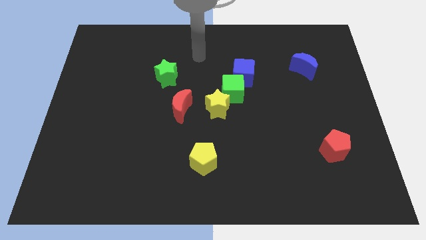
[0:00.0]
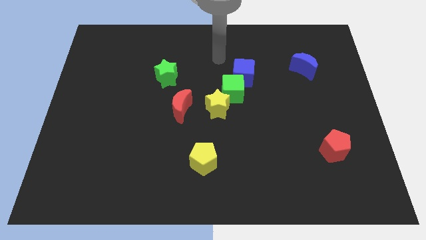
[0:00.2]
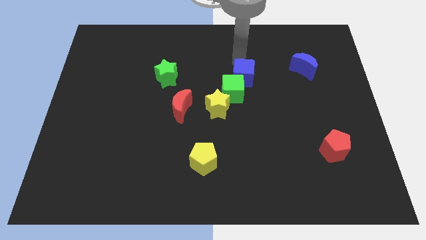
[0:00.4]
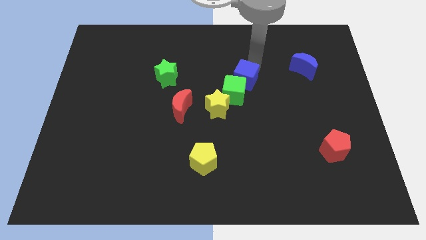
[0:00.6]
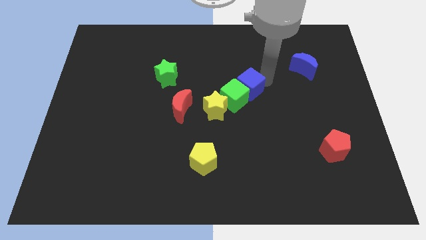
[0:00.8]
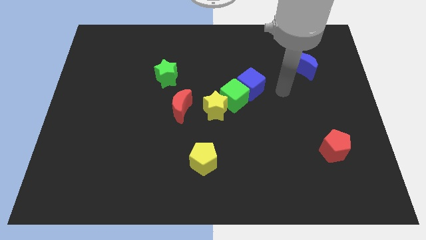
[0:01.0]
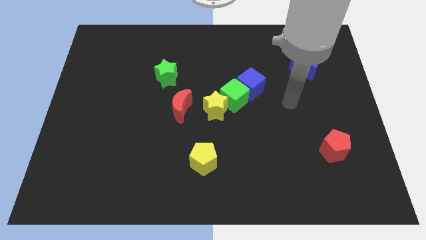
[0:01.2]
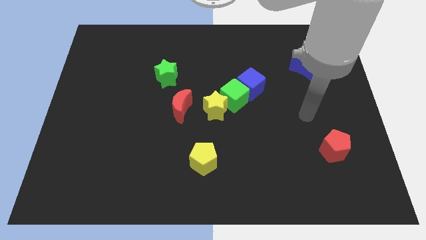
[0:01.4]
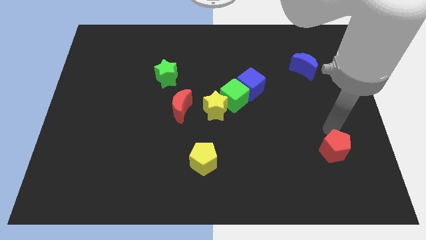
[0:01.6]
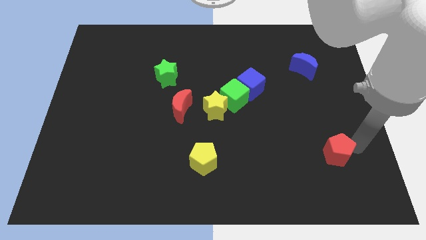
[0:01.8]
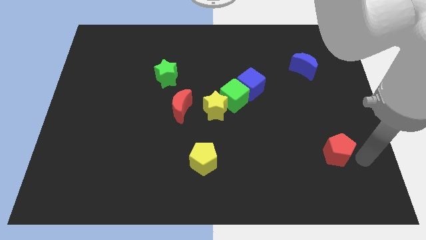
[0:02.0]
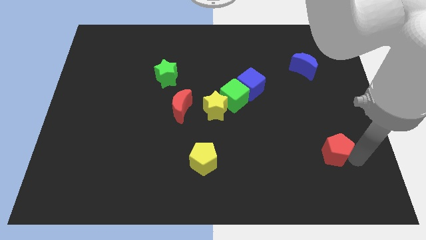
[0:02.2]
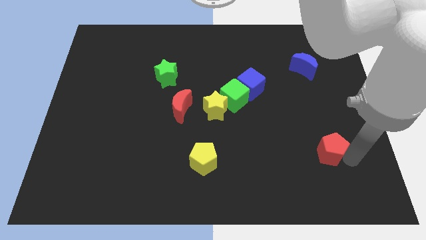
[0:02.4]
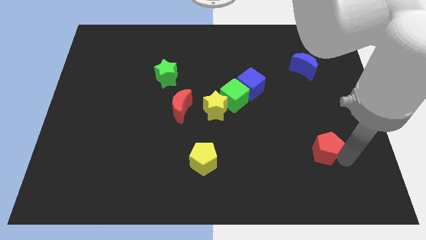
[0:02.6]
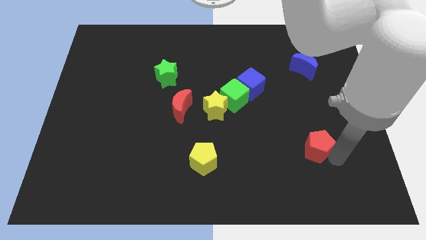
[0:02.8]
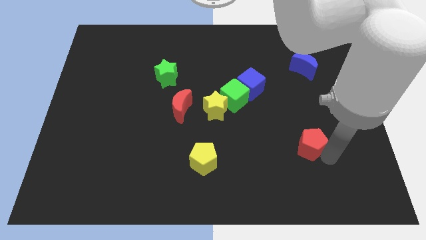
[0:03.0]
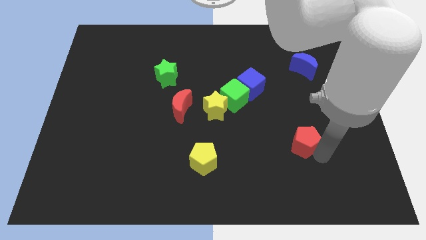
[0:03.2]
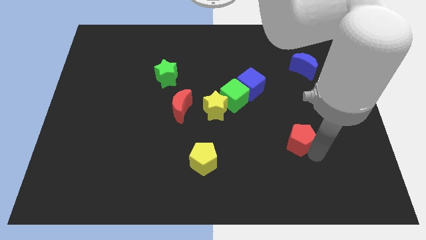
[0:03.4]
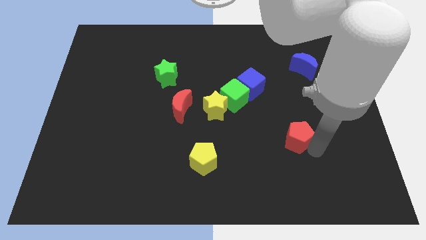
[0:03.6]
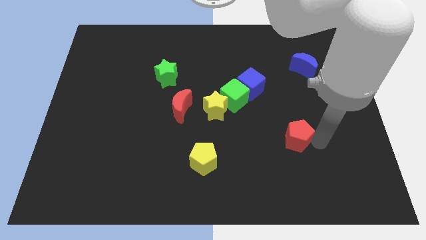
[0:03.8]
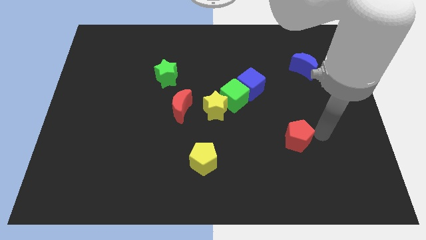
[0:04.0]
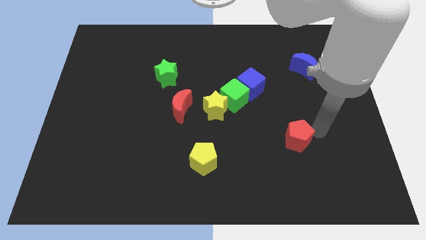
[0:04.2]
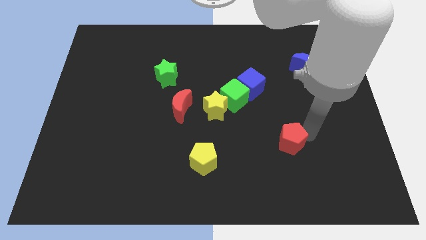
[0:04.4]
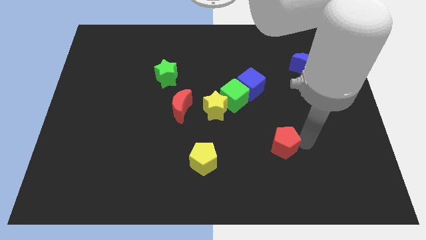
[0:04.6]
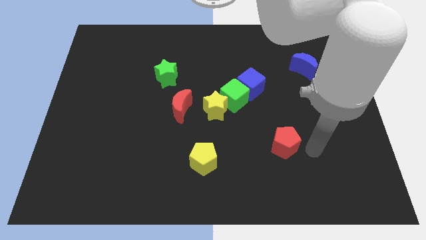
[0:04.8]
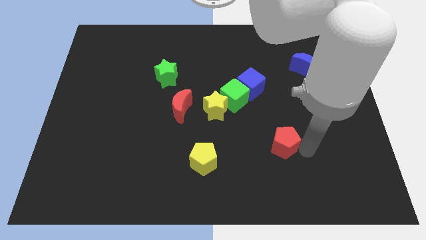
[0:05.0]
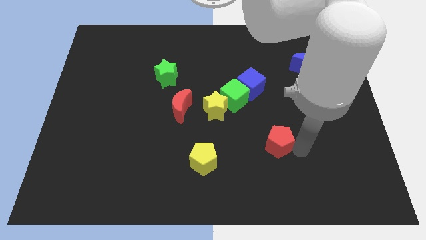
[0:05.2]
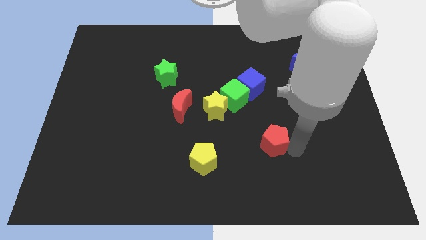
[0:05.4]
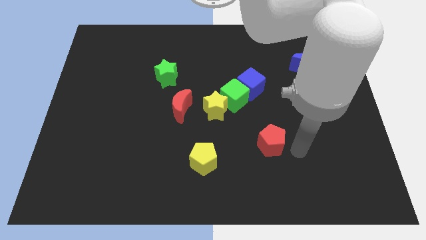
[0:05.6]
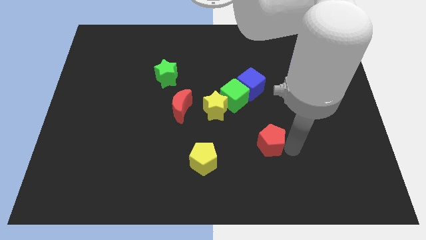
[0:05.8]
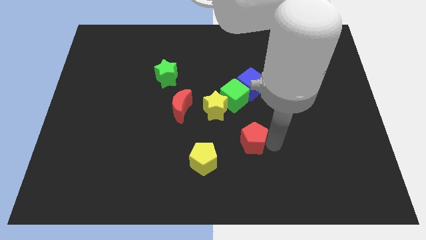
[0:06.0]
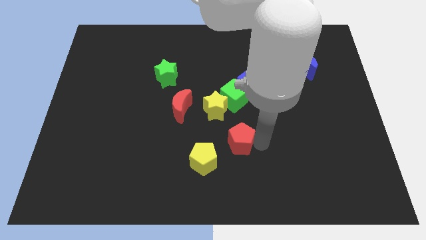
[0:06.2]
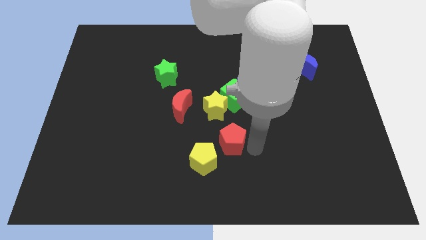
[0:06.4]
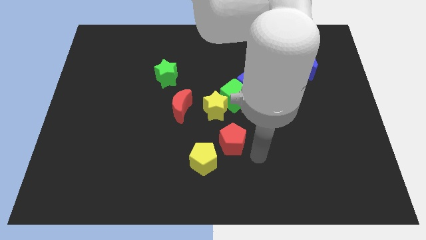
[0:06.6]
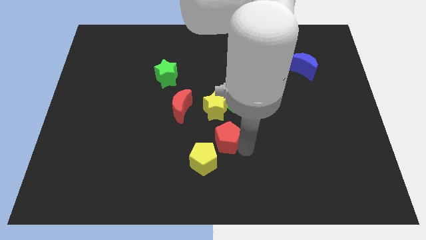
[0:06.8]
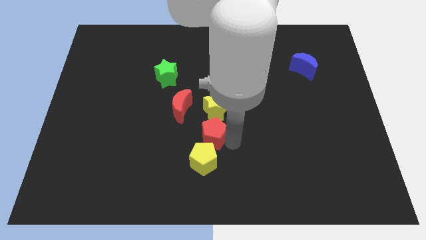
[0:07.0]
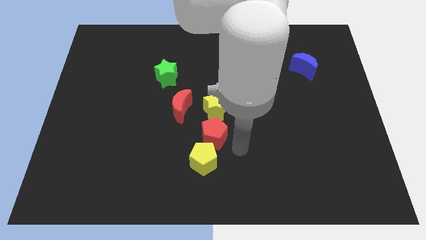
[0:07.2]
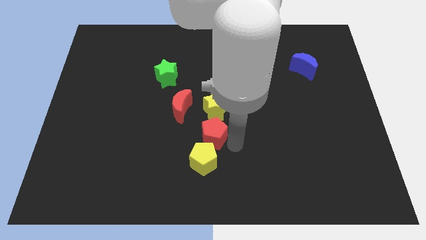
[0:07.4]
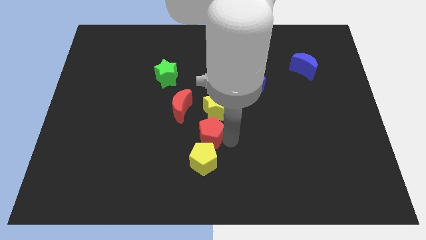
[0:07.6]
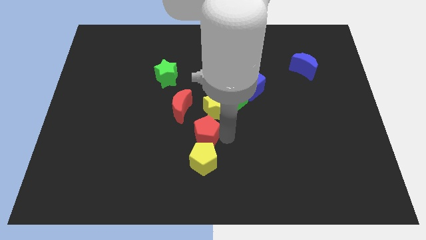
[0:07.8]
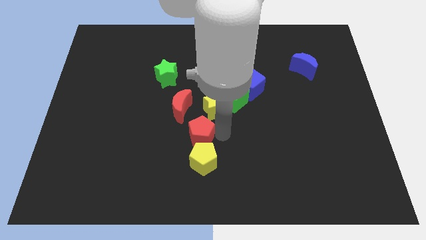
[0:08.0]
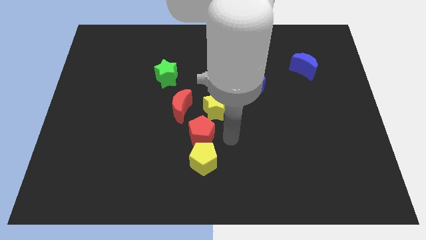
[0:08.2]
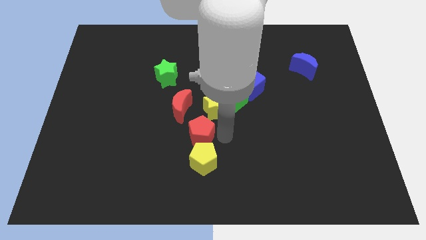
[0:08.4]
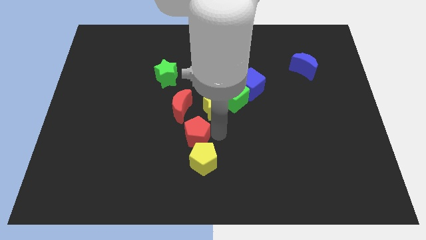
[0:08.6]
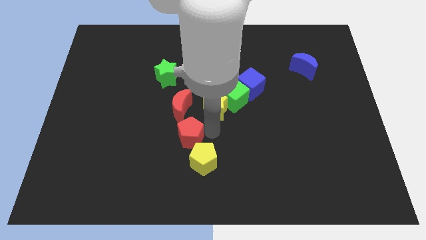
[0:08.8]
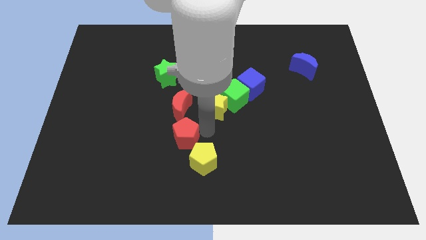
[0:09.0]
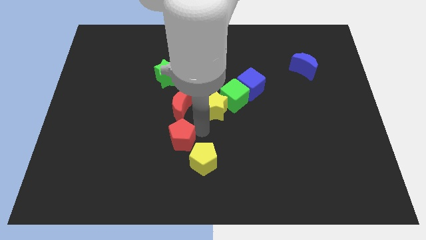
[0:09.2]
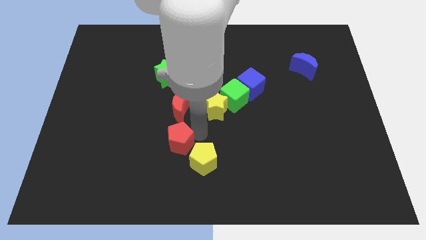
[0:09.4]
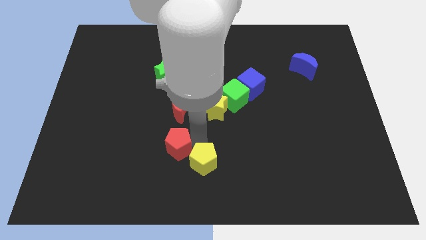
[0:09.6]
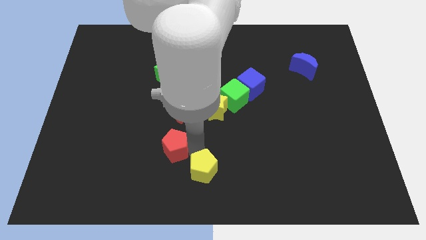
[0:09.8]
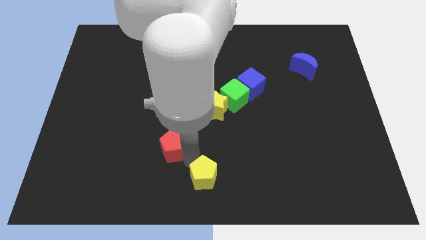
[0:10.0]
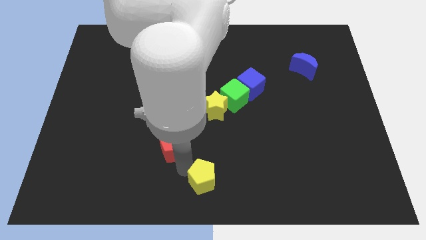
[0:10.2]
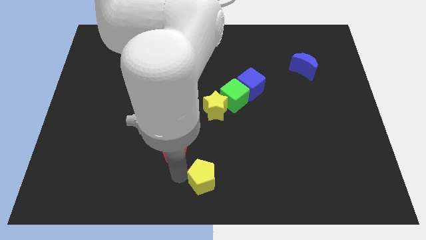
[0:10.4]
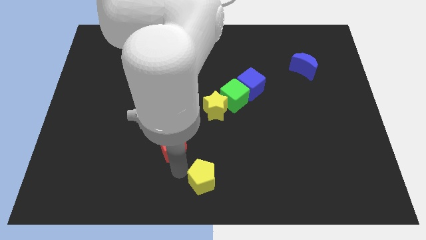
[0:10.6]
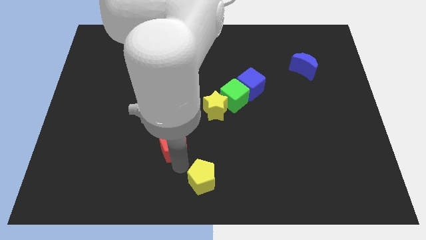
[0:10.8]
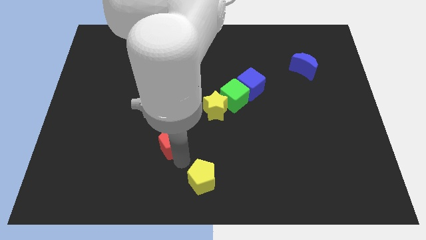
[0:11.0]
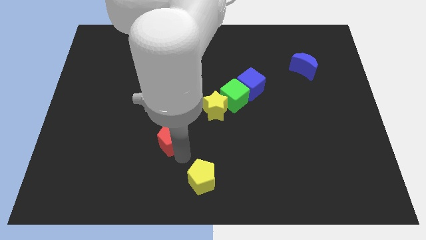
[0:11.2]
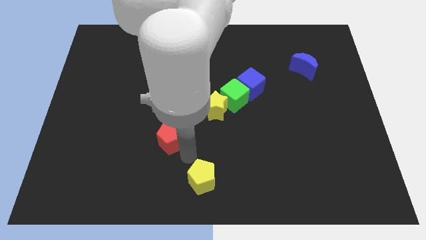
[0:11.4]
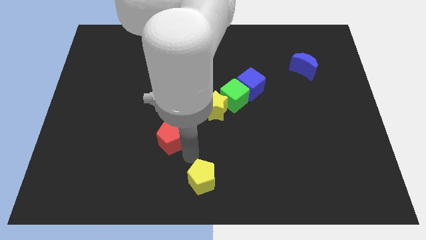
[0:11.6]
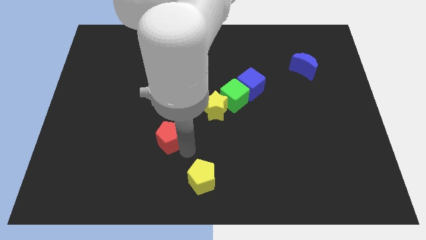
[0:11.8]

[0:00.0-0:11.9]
slide the red pentagon to the bottom left side of the red moon

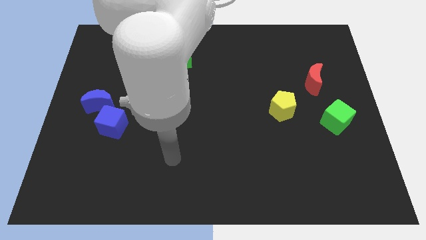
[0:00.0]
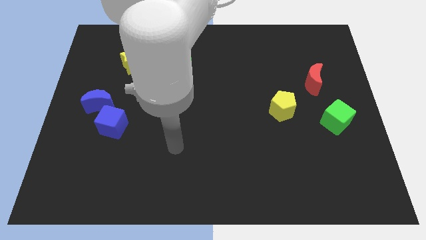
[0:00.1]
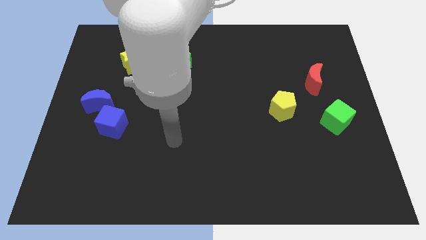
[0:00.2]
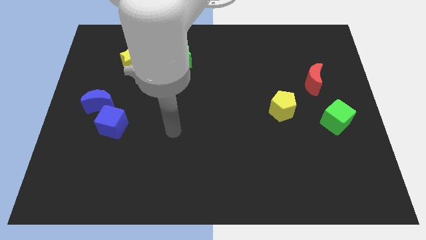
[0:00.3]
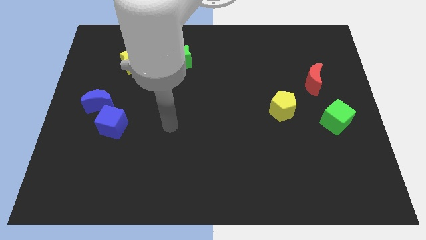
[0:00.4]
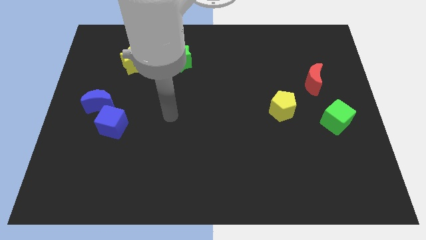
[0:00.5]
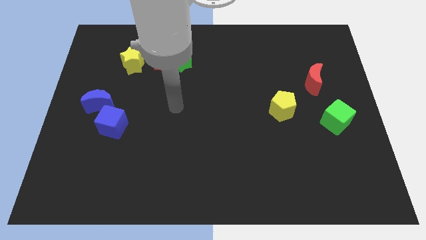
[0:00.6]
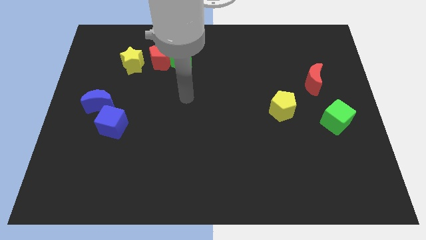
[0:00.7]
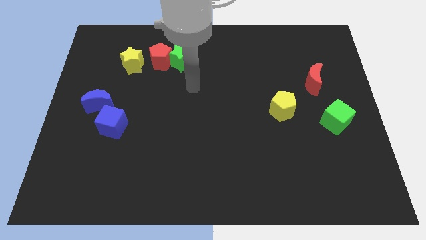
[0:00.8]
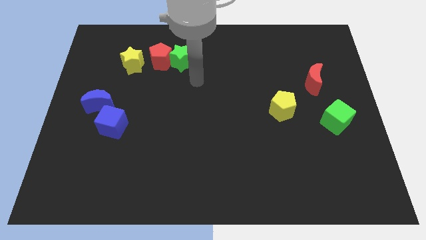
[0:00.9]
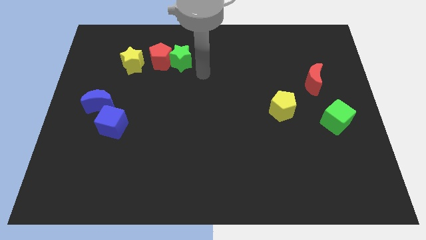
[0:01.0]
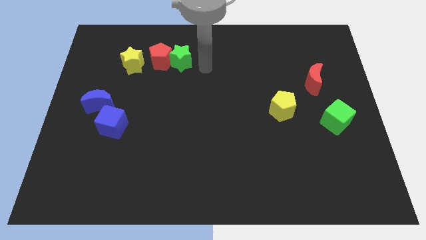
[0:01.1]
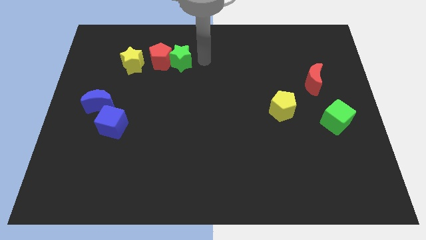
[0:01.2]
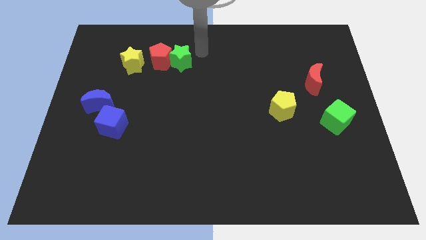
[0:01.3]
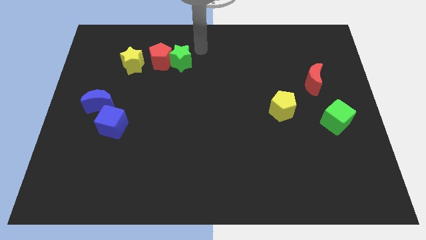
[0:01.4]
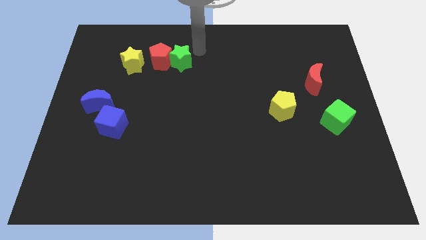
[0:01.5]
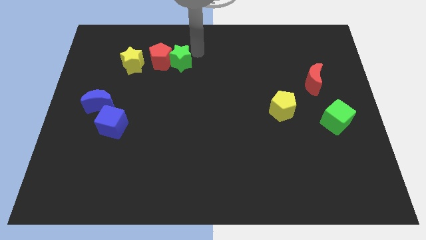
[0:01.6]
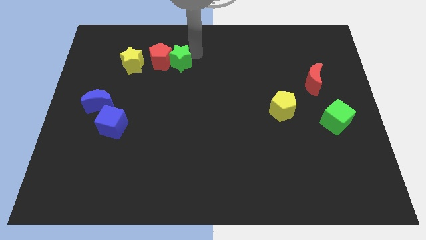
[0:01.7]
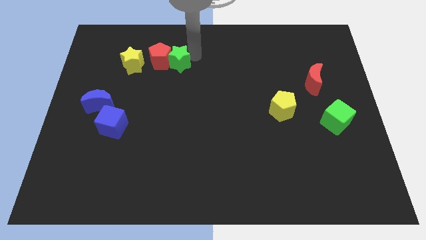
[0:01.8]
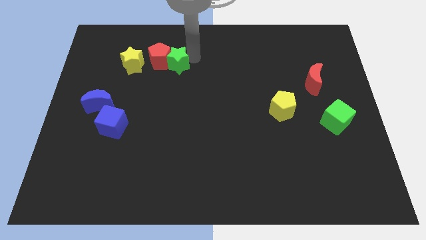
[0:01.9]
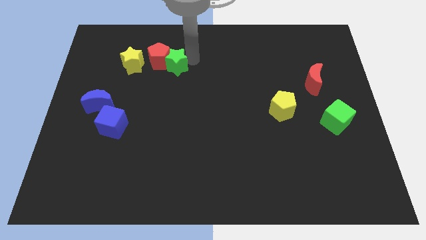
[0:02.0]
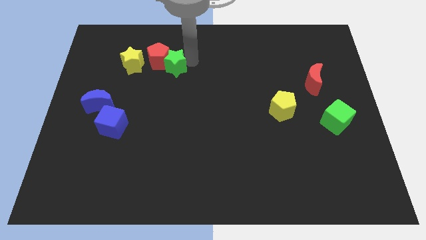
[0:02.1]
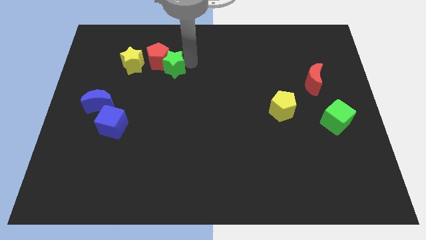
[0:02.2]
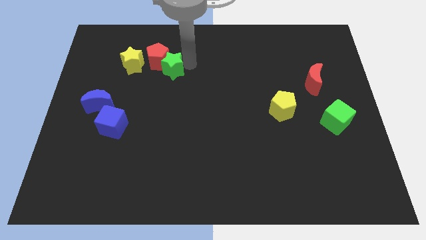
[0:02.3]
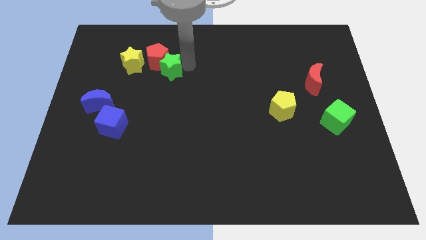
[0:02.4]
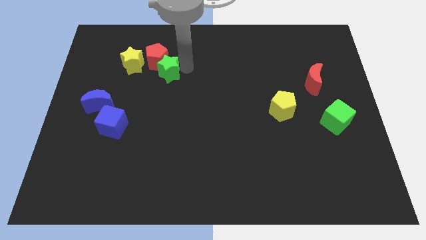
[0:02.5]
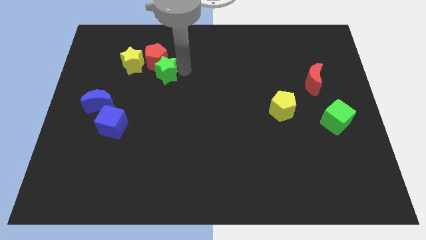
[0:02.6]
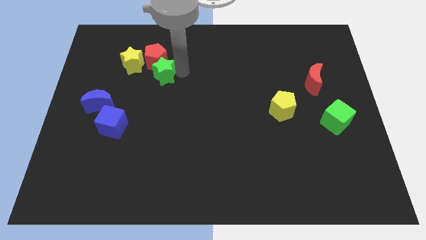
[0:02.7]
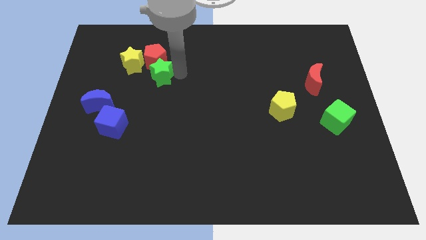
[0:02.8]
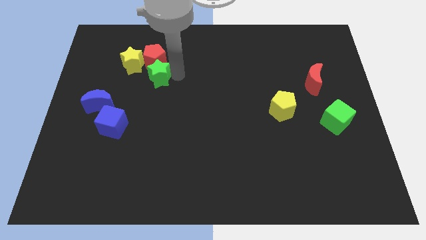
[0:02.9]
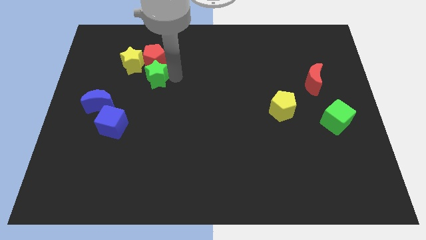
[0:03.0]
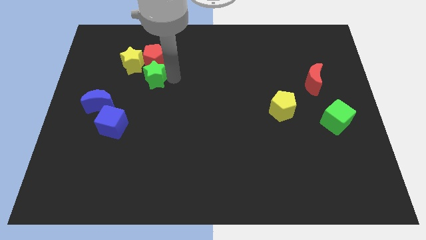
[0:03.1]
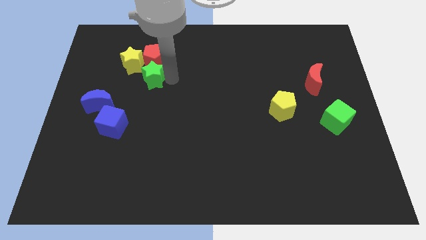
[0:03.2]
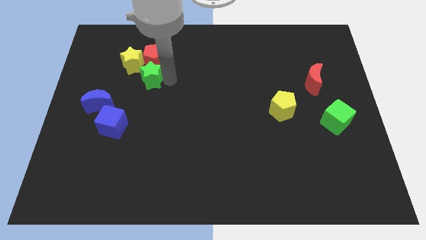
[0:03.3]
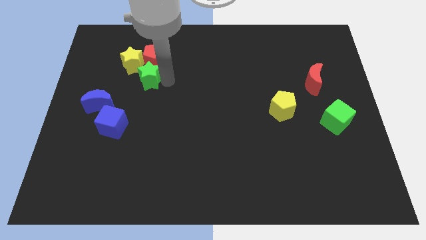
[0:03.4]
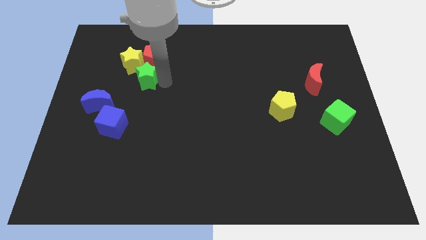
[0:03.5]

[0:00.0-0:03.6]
move the green star to the bottom side of the yellow star
